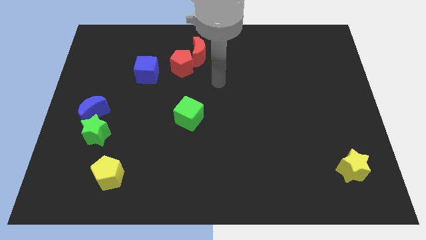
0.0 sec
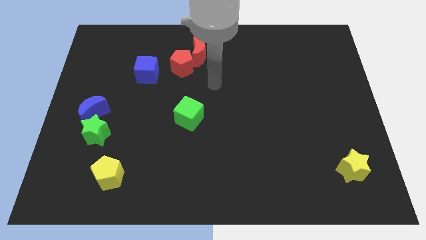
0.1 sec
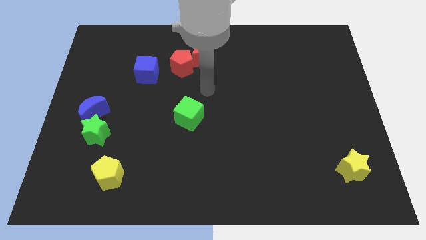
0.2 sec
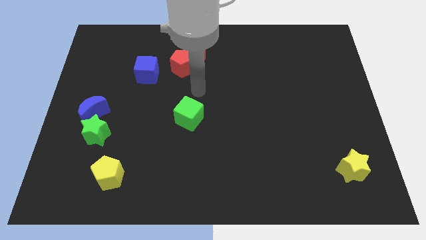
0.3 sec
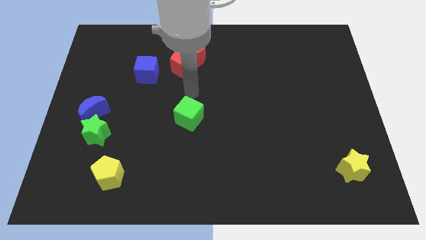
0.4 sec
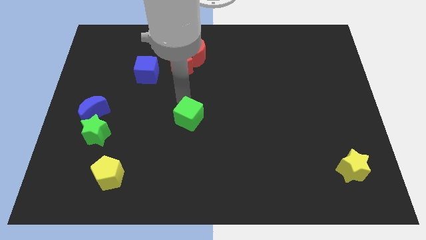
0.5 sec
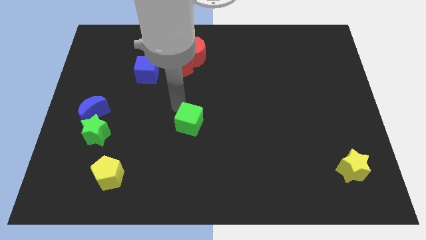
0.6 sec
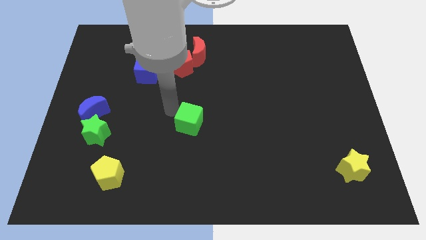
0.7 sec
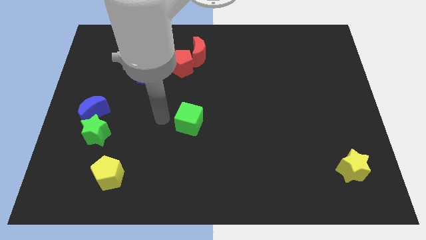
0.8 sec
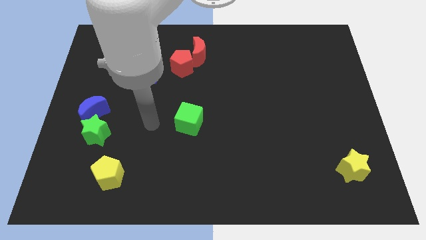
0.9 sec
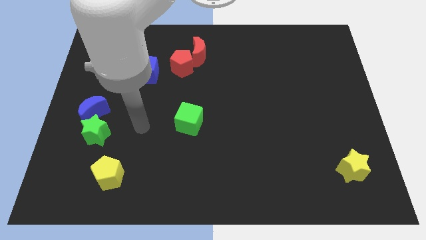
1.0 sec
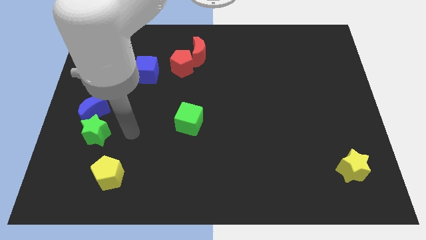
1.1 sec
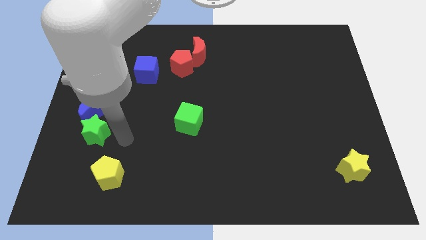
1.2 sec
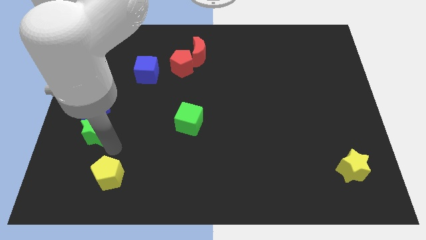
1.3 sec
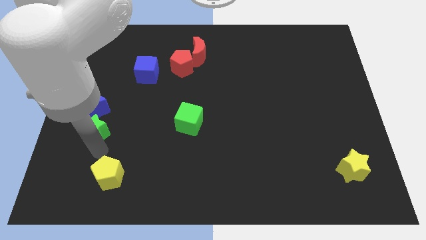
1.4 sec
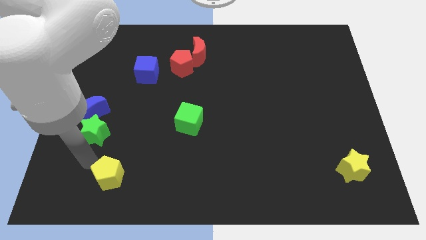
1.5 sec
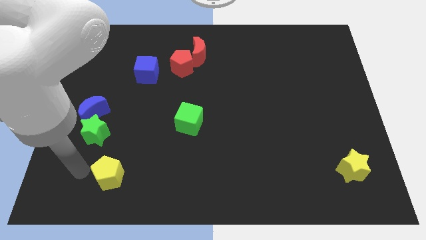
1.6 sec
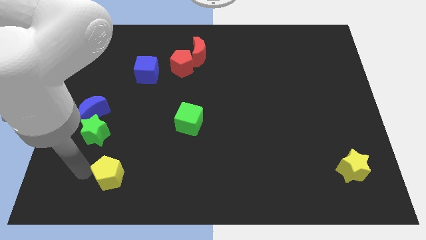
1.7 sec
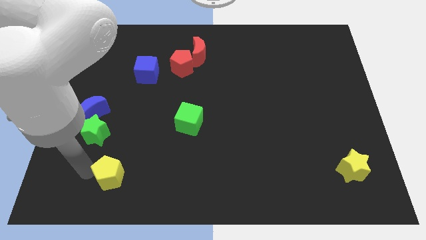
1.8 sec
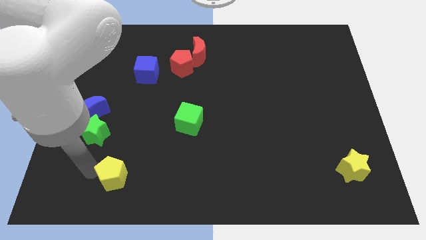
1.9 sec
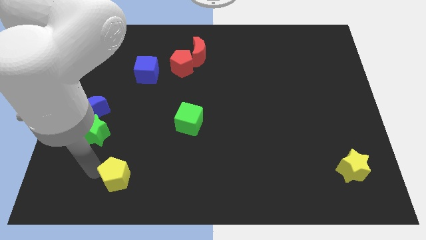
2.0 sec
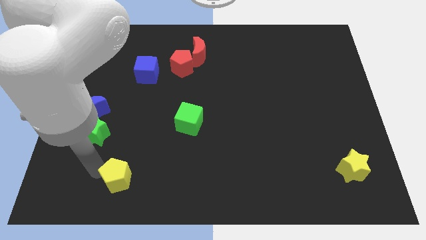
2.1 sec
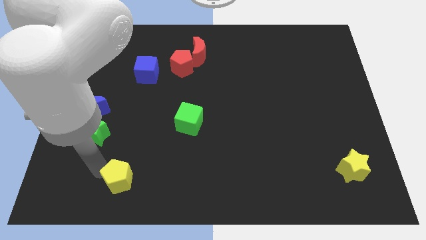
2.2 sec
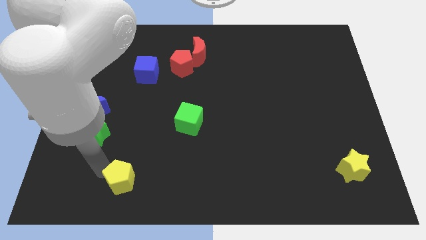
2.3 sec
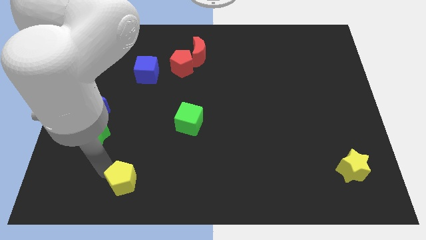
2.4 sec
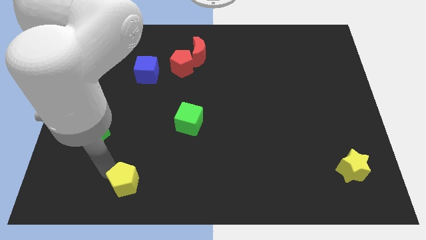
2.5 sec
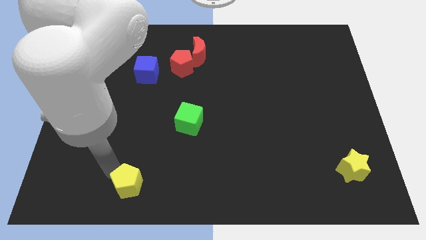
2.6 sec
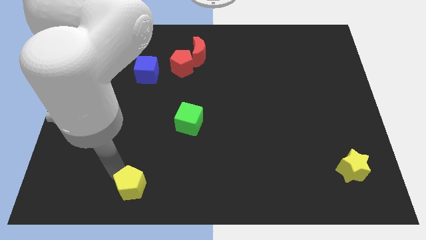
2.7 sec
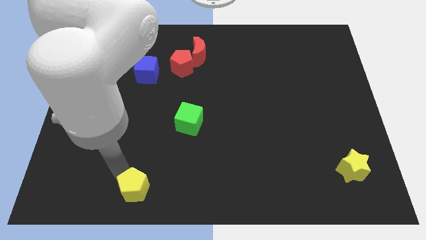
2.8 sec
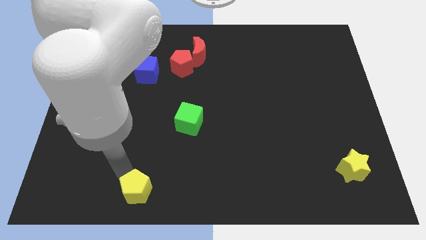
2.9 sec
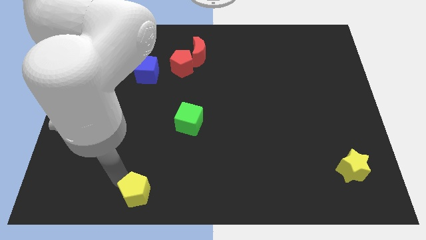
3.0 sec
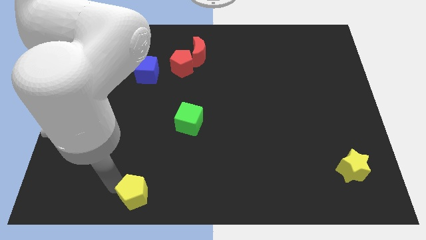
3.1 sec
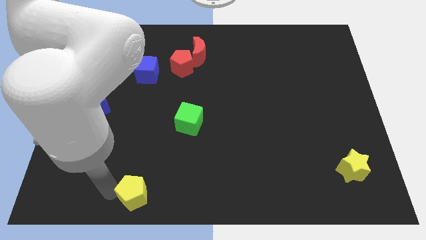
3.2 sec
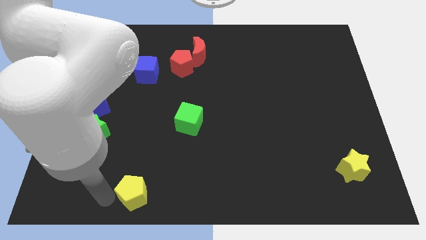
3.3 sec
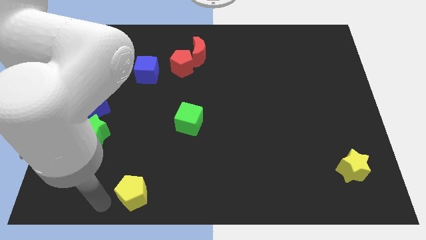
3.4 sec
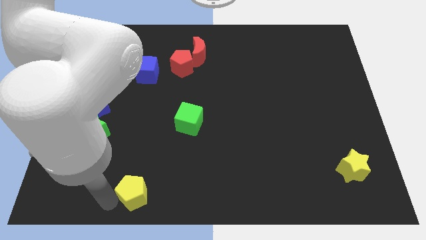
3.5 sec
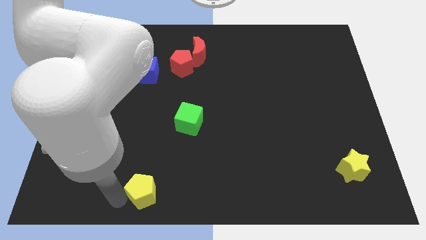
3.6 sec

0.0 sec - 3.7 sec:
slide the yellow pentagon slightly right

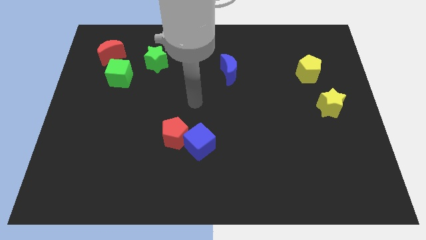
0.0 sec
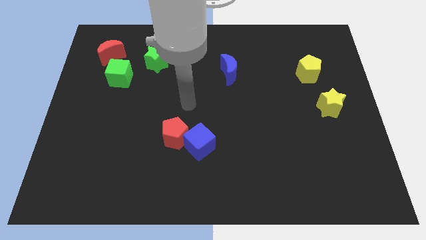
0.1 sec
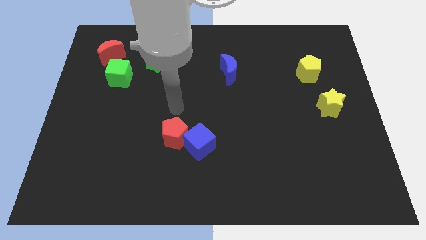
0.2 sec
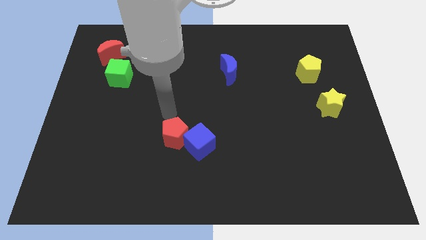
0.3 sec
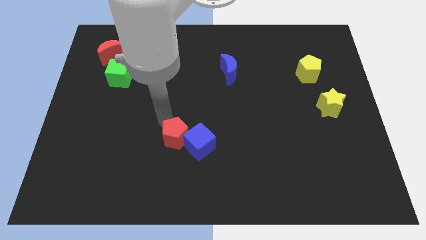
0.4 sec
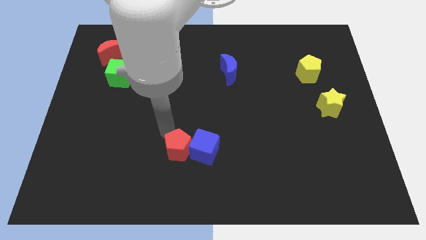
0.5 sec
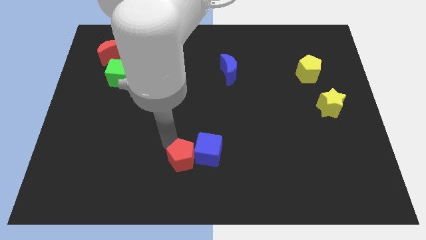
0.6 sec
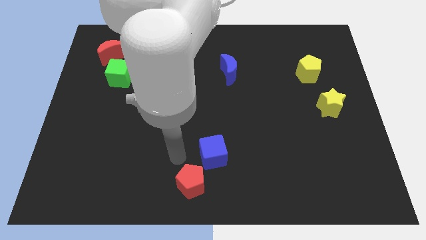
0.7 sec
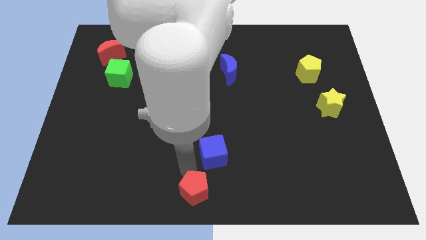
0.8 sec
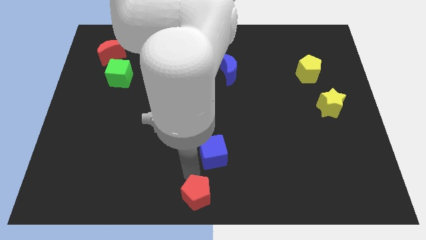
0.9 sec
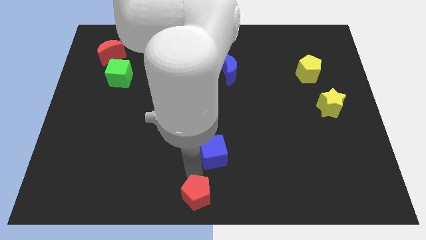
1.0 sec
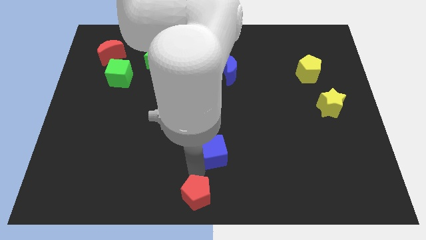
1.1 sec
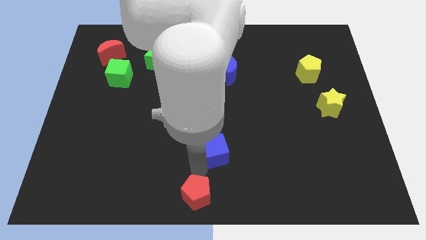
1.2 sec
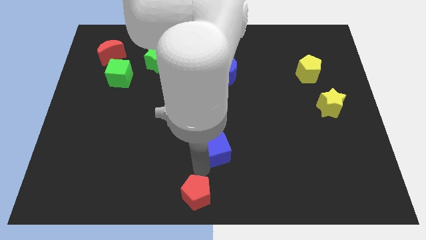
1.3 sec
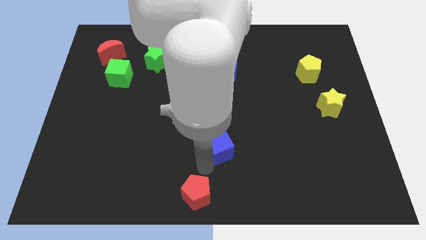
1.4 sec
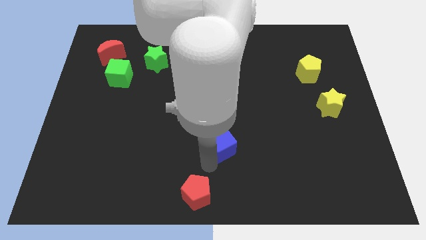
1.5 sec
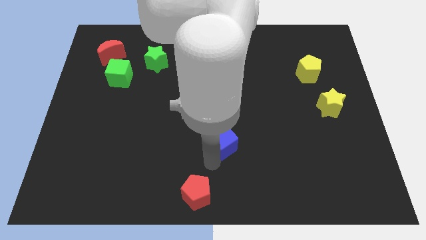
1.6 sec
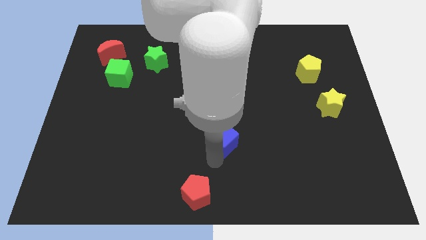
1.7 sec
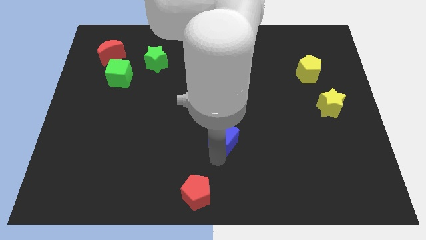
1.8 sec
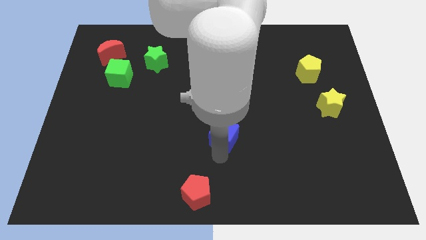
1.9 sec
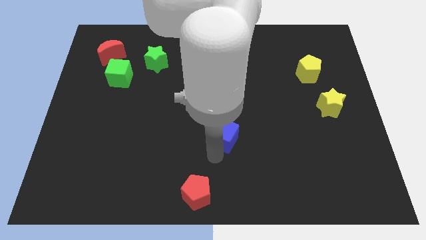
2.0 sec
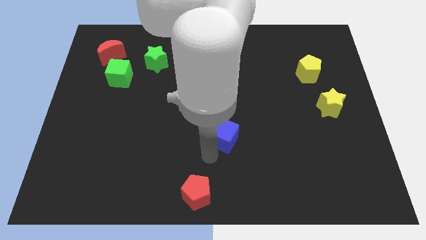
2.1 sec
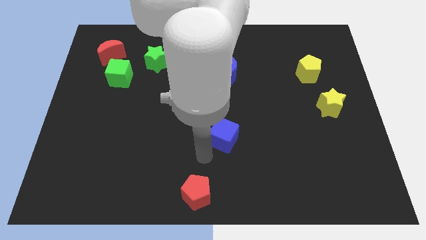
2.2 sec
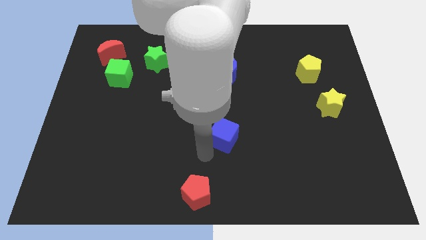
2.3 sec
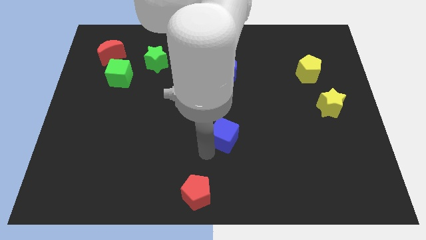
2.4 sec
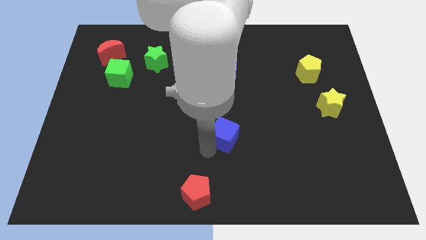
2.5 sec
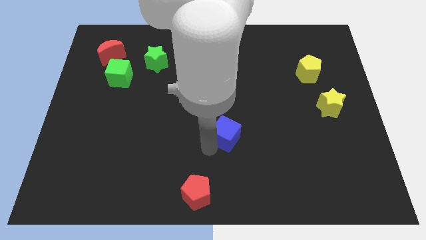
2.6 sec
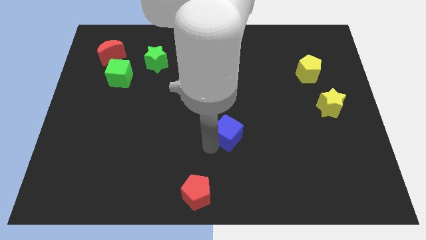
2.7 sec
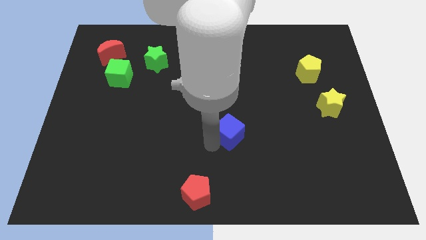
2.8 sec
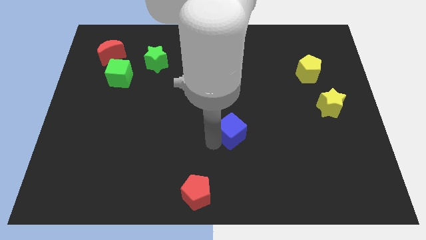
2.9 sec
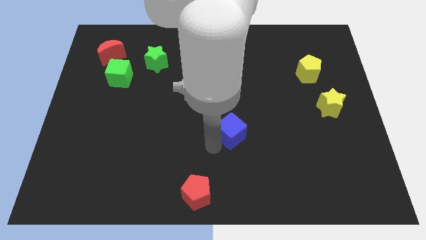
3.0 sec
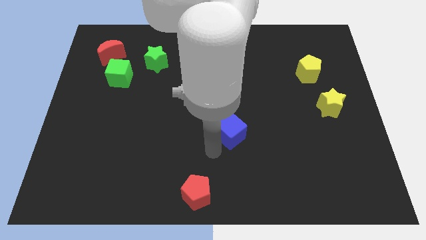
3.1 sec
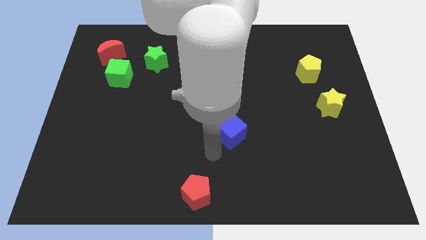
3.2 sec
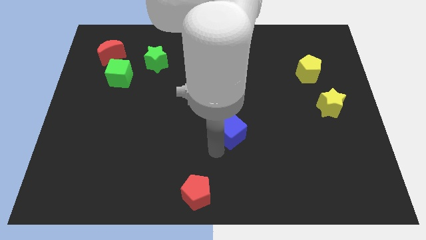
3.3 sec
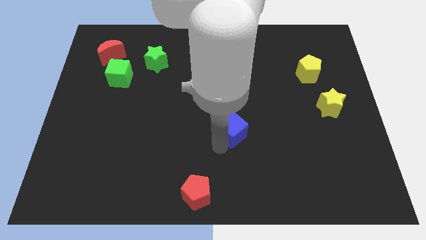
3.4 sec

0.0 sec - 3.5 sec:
slide the blue cube a bit up and right diagonally

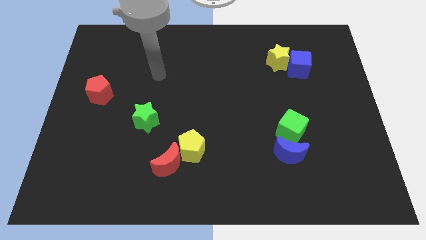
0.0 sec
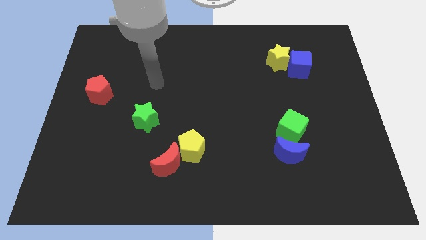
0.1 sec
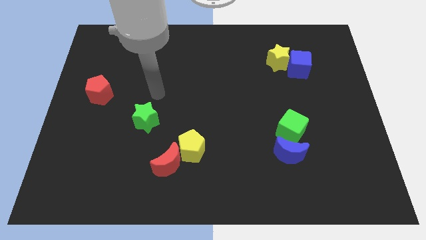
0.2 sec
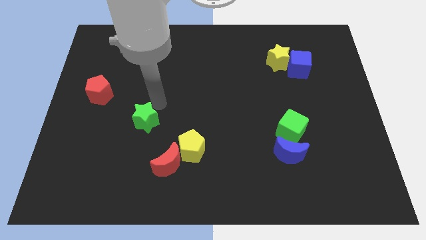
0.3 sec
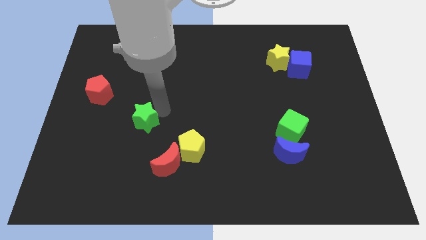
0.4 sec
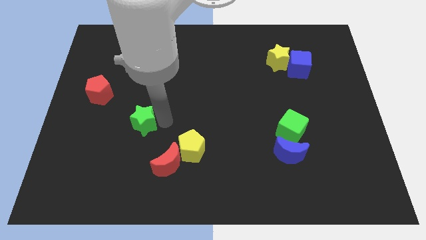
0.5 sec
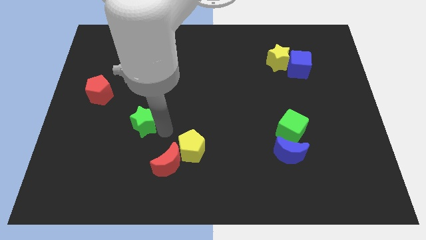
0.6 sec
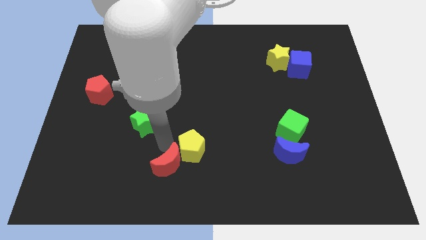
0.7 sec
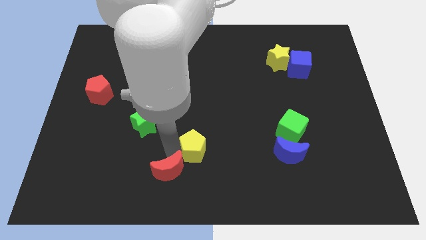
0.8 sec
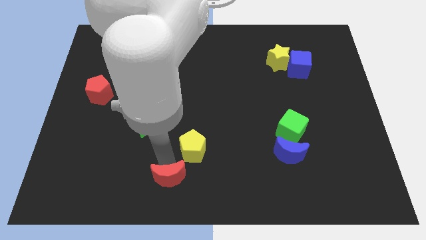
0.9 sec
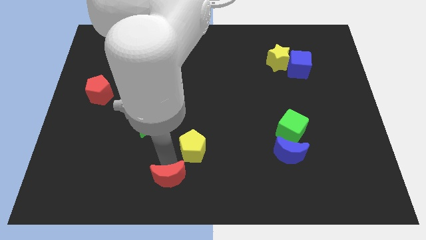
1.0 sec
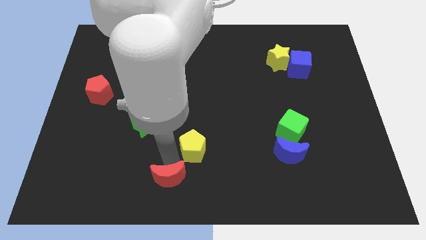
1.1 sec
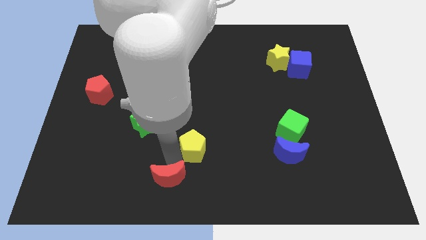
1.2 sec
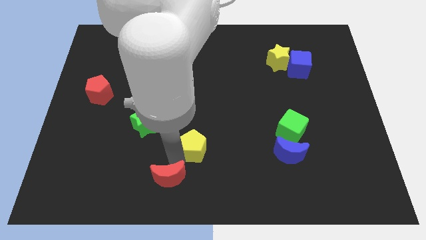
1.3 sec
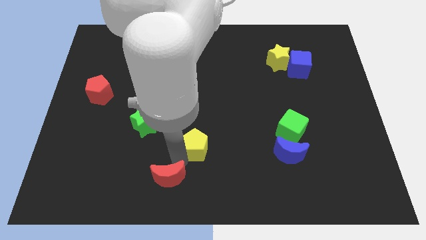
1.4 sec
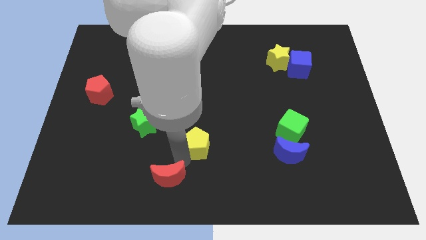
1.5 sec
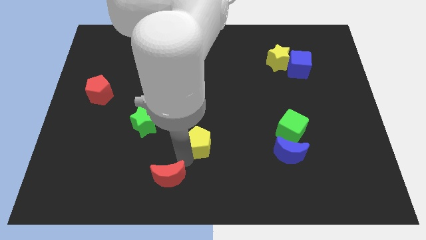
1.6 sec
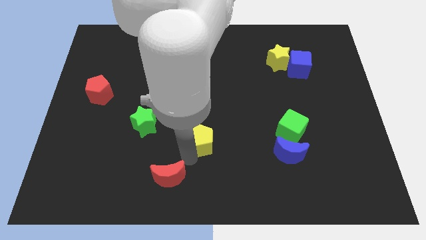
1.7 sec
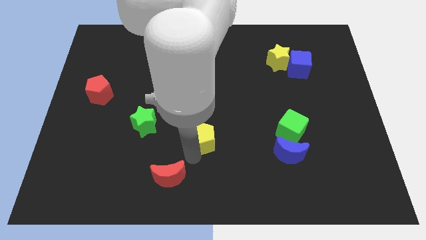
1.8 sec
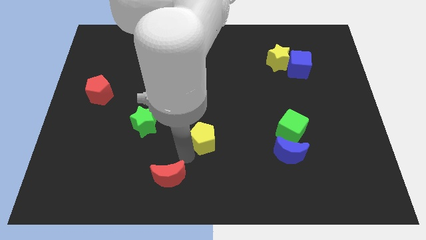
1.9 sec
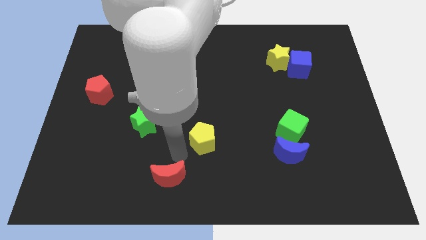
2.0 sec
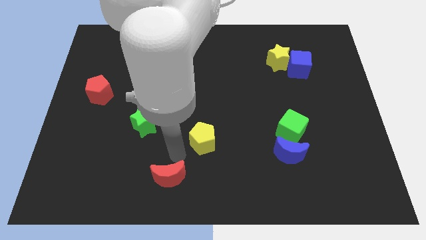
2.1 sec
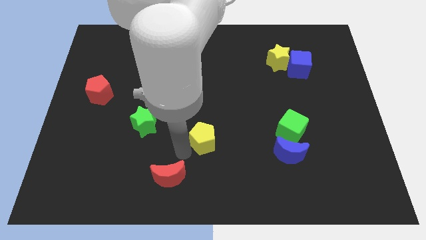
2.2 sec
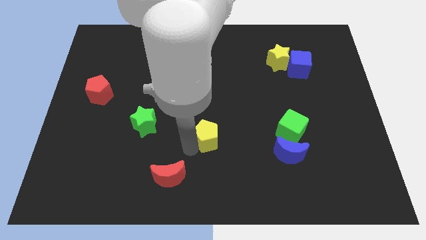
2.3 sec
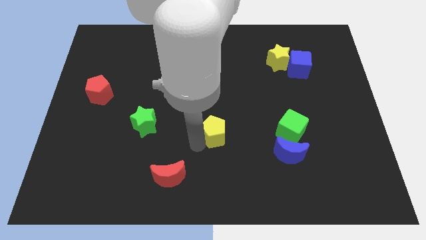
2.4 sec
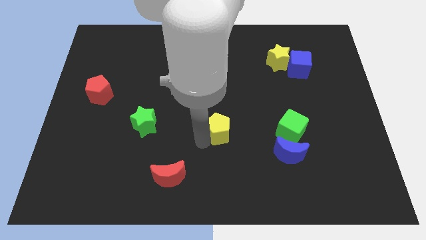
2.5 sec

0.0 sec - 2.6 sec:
move the yellow pentagon a bit diagonally upwards and right
